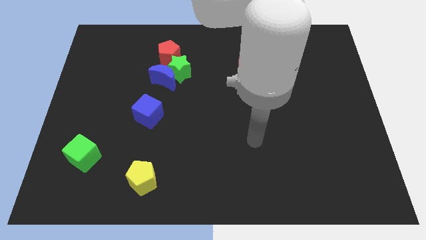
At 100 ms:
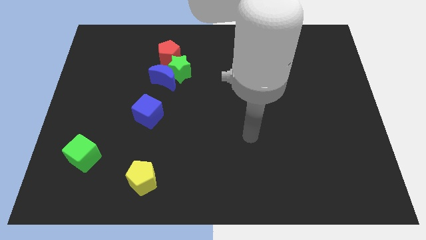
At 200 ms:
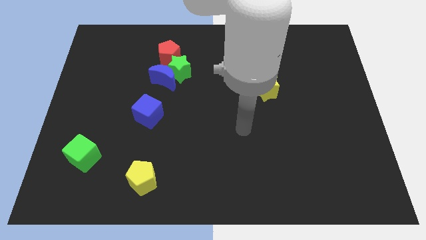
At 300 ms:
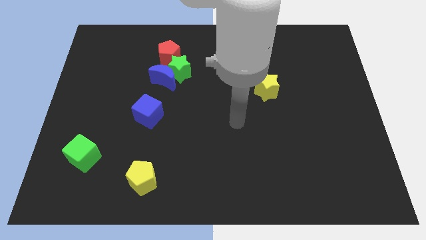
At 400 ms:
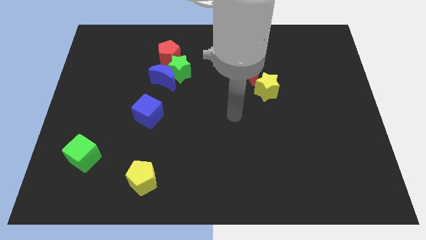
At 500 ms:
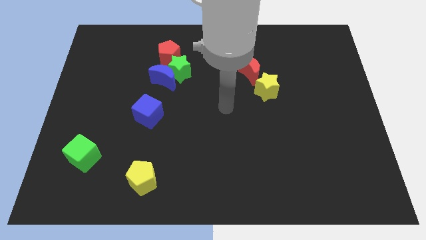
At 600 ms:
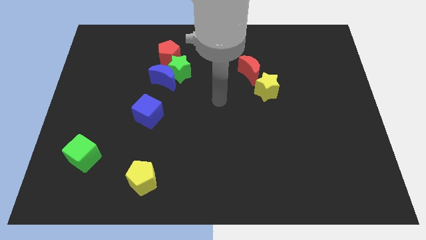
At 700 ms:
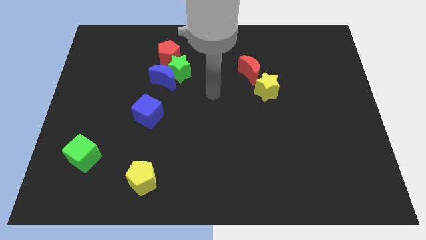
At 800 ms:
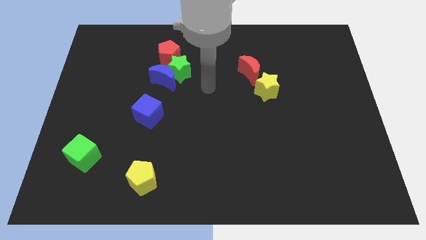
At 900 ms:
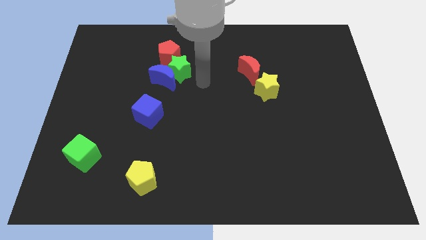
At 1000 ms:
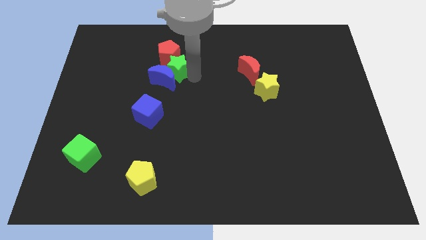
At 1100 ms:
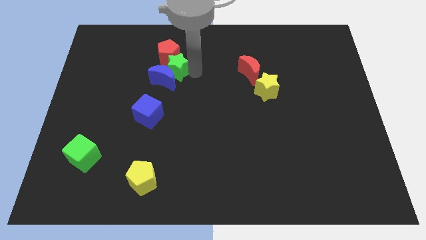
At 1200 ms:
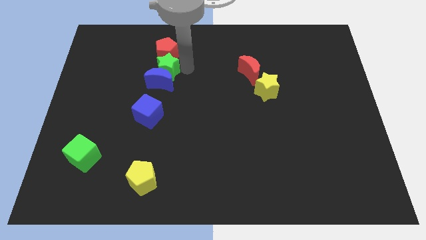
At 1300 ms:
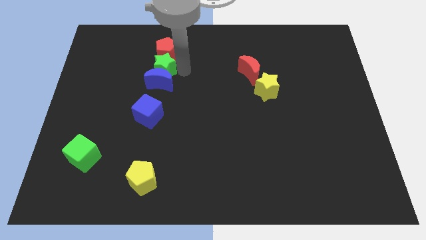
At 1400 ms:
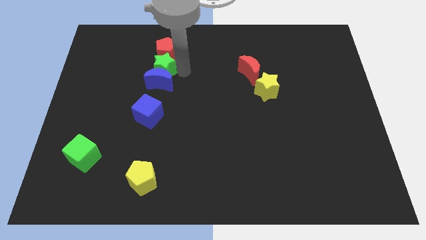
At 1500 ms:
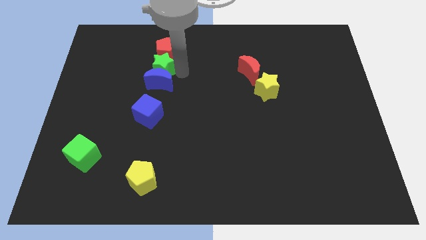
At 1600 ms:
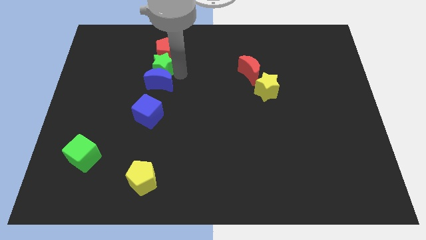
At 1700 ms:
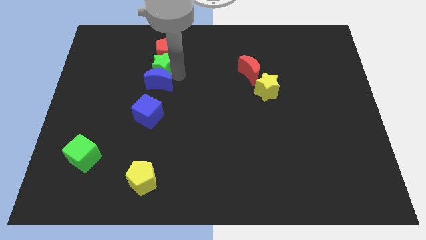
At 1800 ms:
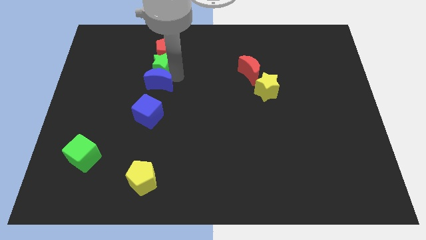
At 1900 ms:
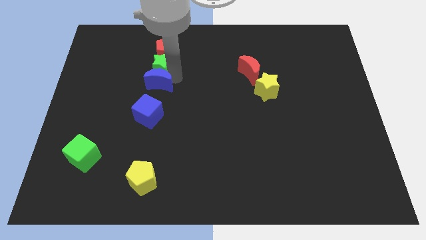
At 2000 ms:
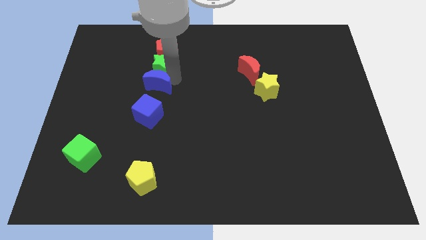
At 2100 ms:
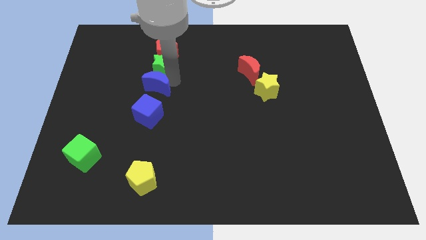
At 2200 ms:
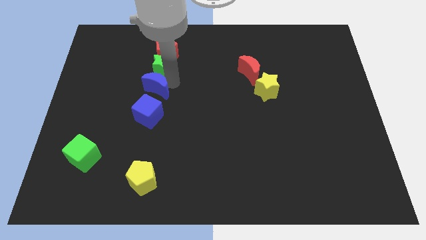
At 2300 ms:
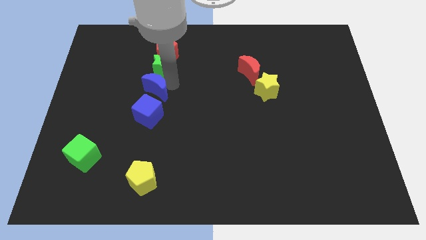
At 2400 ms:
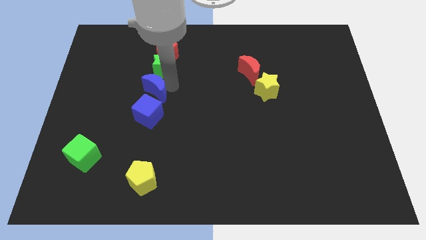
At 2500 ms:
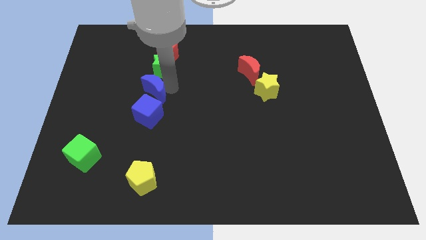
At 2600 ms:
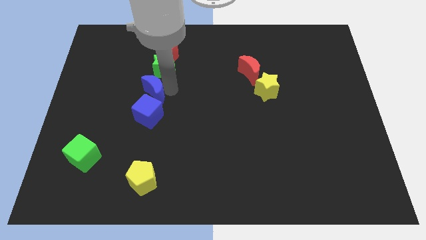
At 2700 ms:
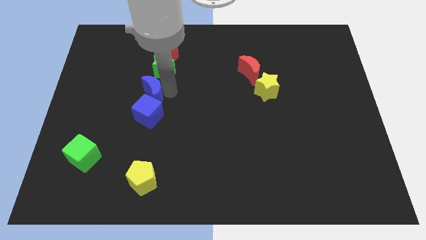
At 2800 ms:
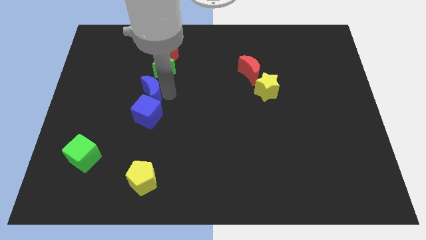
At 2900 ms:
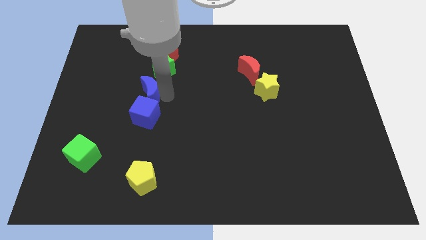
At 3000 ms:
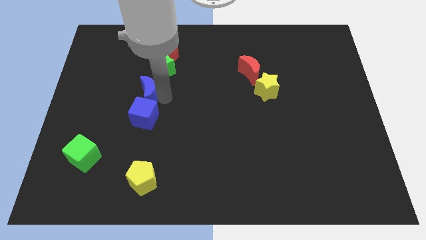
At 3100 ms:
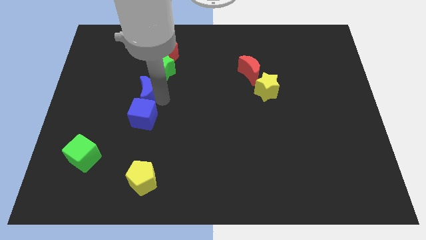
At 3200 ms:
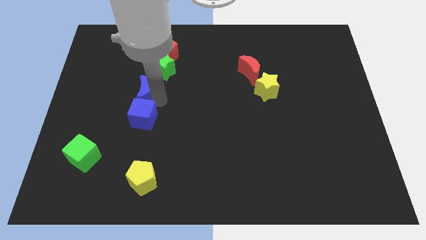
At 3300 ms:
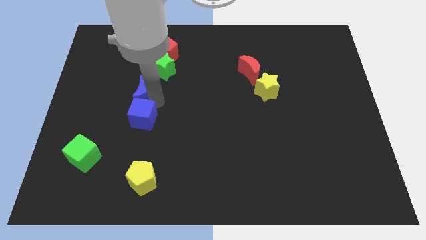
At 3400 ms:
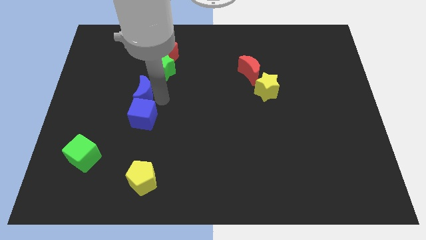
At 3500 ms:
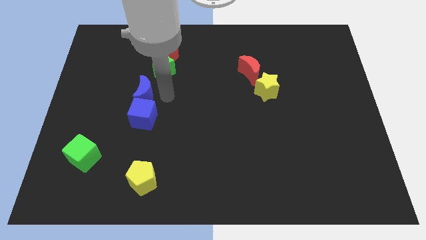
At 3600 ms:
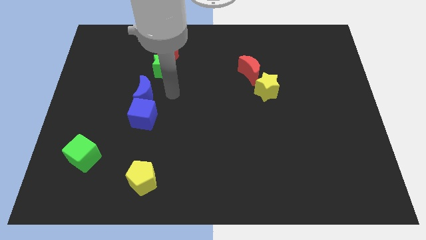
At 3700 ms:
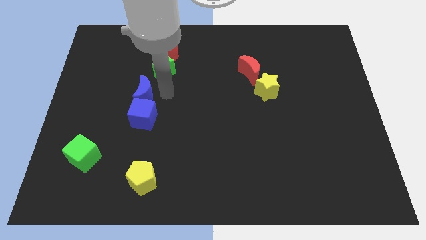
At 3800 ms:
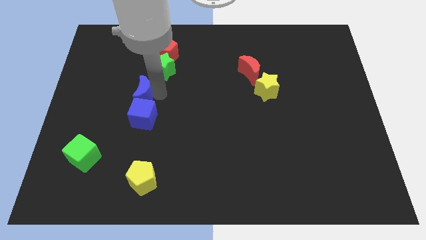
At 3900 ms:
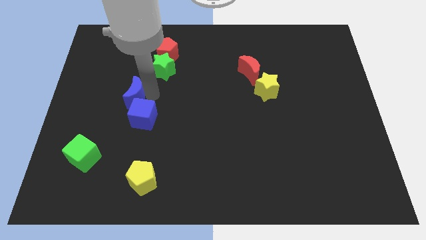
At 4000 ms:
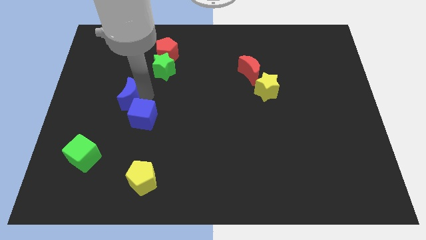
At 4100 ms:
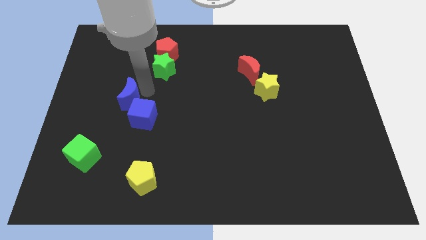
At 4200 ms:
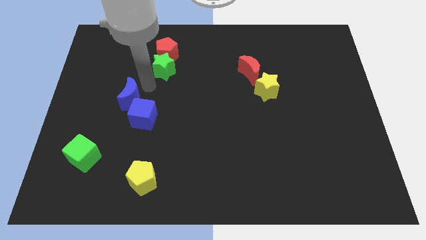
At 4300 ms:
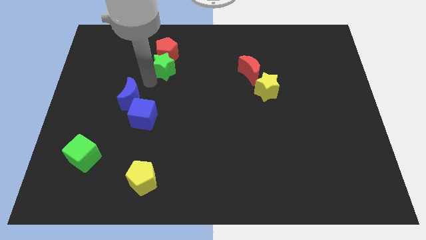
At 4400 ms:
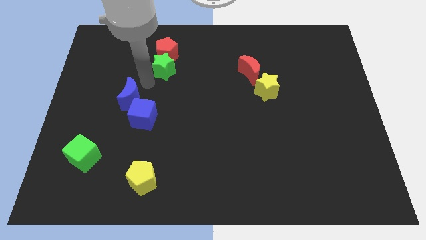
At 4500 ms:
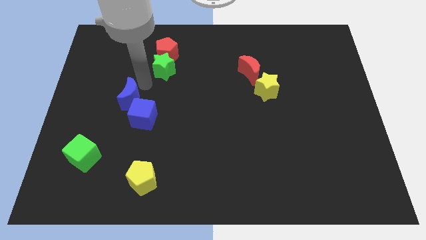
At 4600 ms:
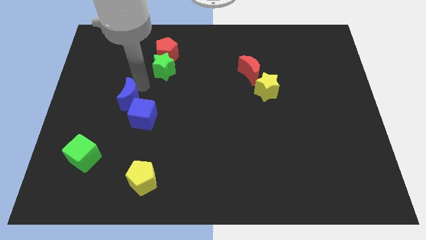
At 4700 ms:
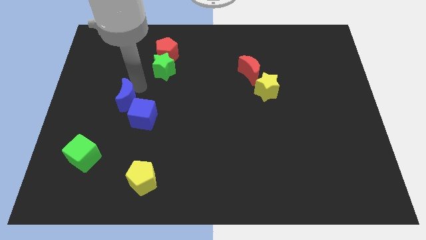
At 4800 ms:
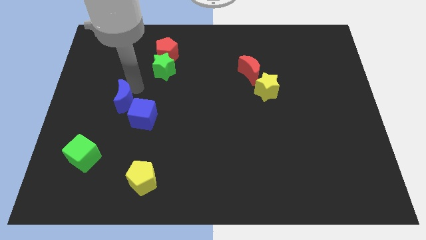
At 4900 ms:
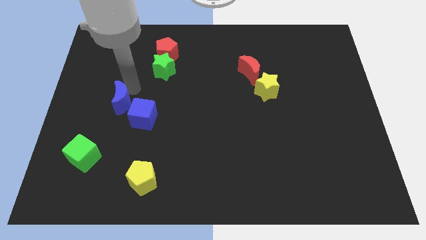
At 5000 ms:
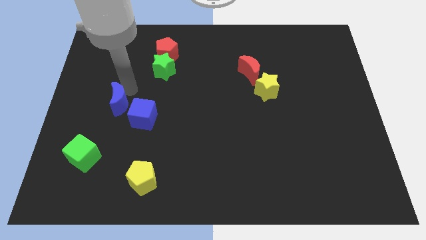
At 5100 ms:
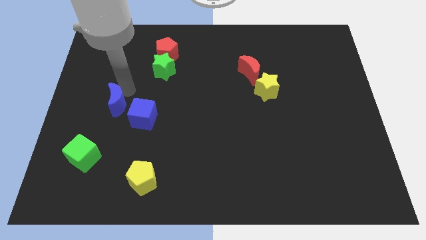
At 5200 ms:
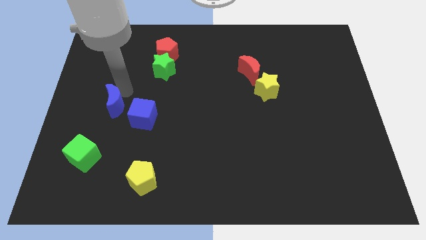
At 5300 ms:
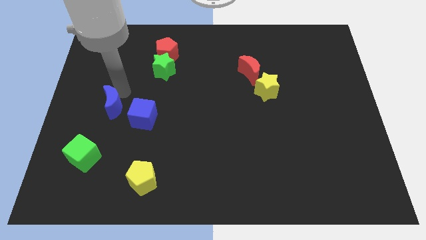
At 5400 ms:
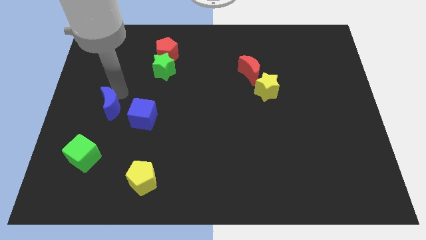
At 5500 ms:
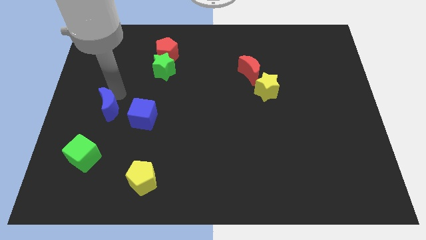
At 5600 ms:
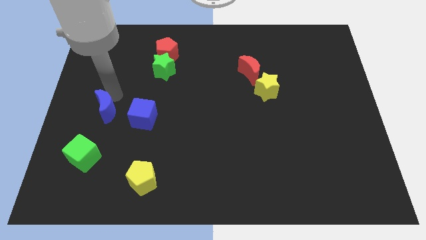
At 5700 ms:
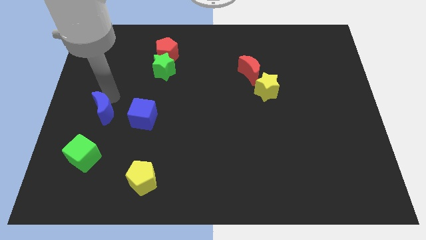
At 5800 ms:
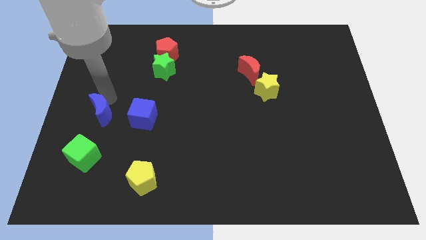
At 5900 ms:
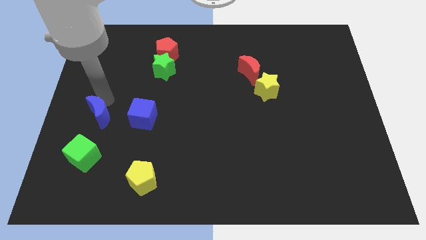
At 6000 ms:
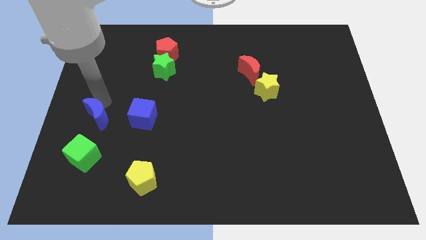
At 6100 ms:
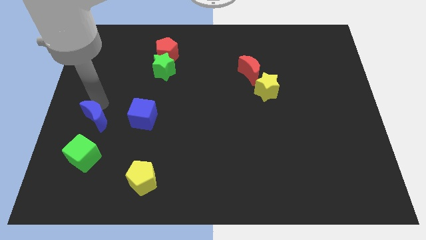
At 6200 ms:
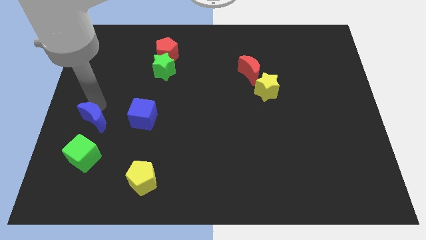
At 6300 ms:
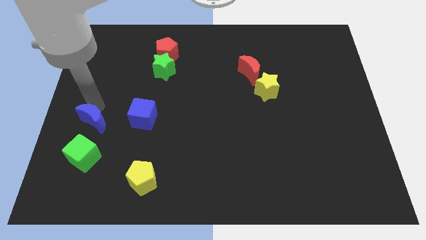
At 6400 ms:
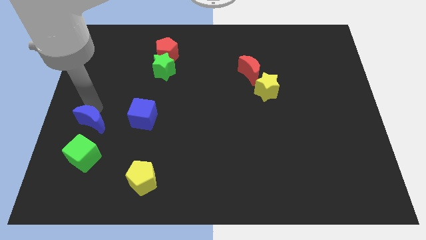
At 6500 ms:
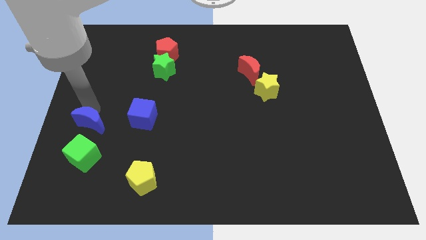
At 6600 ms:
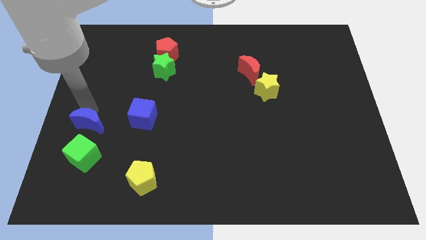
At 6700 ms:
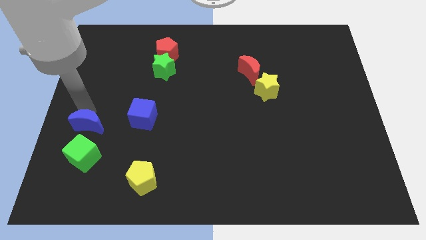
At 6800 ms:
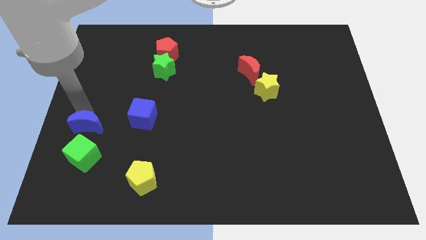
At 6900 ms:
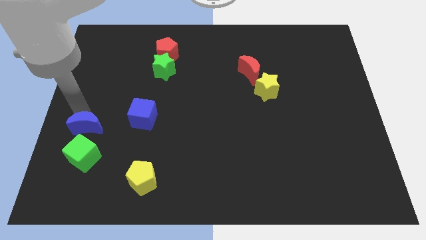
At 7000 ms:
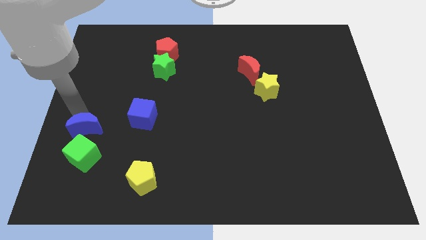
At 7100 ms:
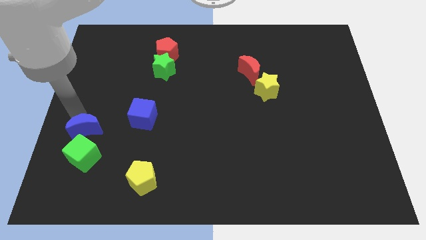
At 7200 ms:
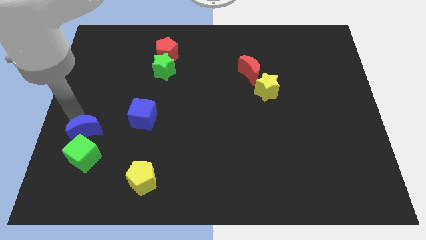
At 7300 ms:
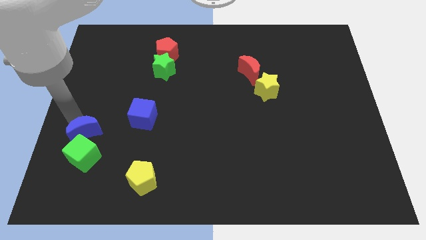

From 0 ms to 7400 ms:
move the blue moon to the green cube
